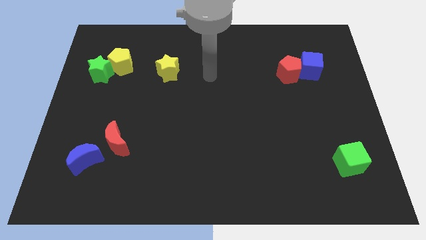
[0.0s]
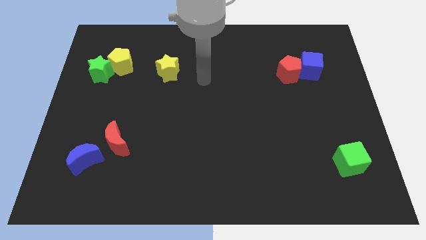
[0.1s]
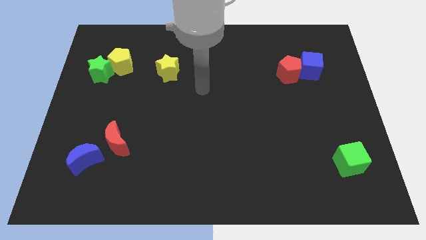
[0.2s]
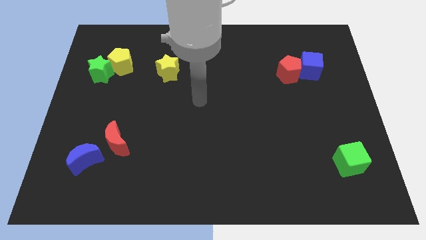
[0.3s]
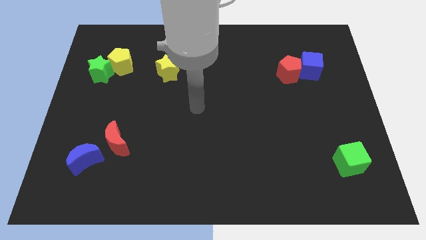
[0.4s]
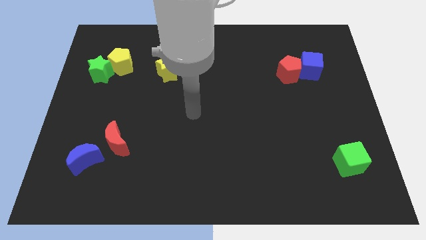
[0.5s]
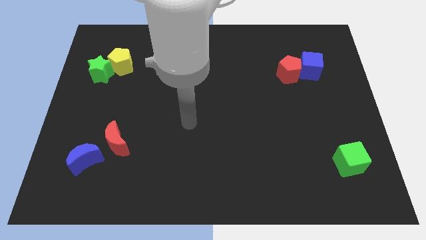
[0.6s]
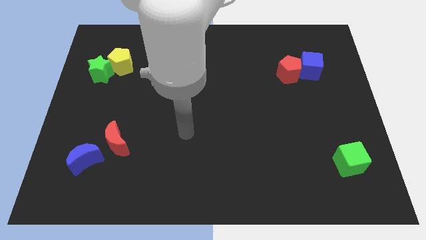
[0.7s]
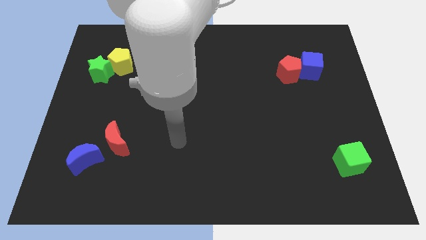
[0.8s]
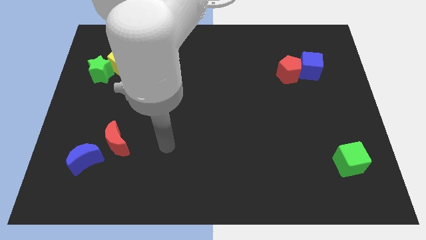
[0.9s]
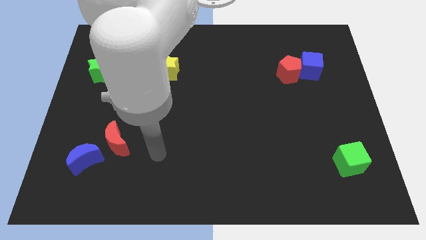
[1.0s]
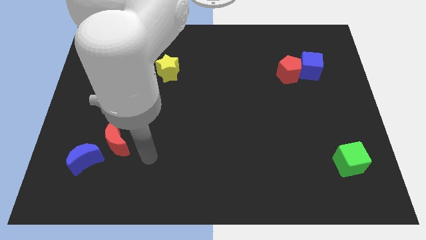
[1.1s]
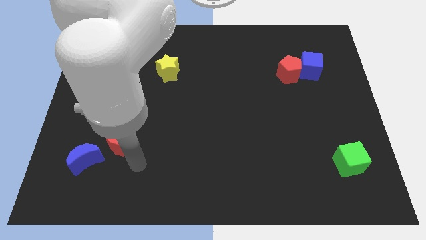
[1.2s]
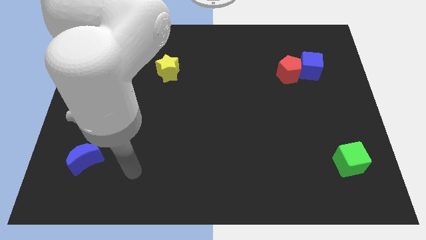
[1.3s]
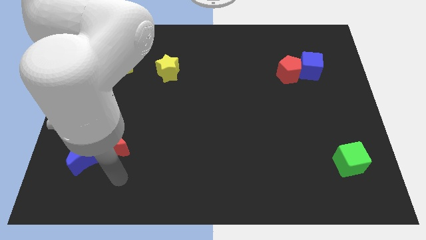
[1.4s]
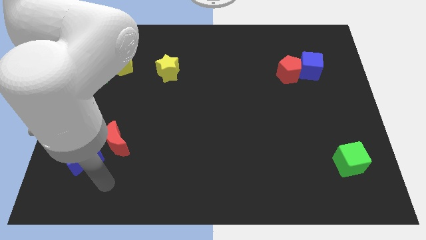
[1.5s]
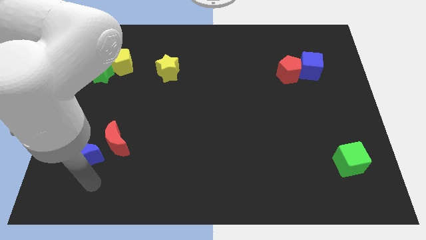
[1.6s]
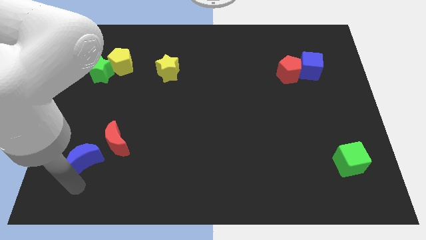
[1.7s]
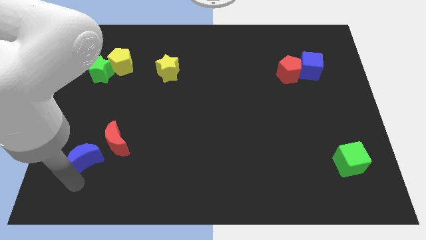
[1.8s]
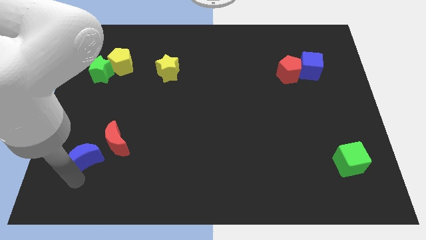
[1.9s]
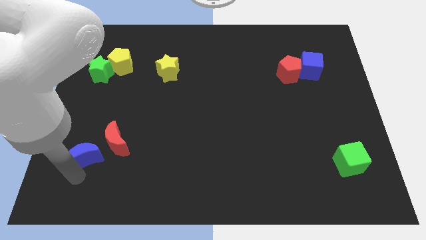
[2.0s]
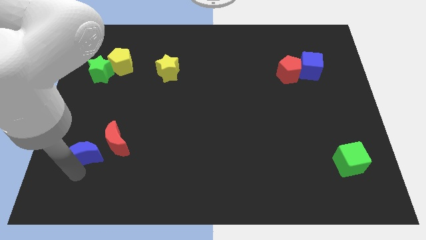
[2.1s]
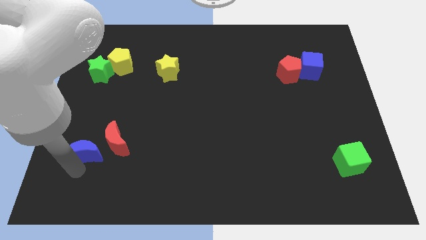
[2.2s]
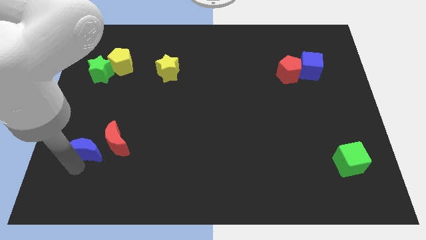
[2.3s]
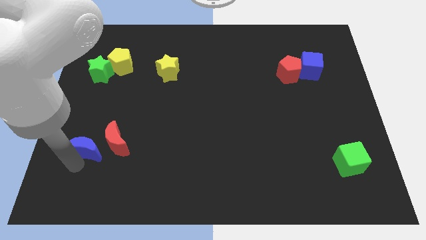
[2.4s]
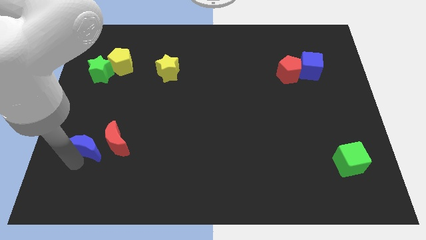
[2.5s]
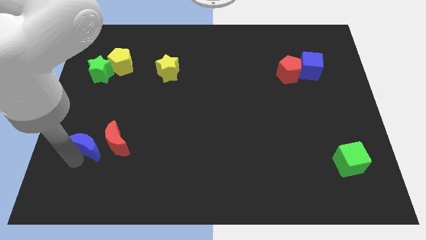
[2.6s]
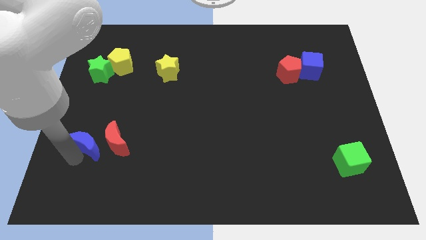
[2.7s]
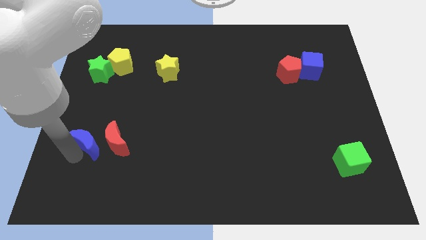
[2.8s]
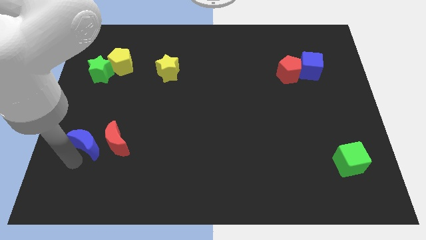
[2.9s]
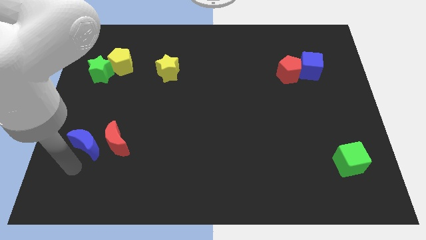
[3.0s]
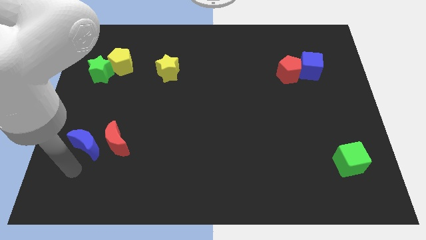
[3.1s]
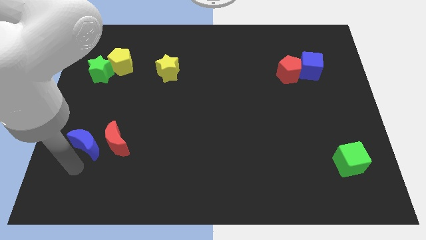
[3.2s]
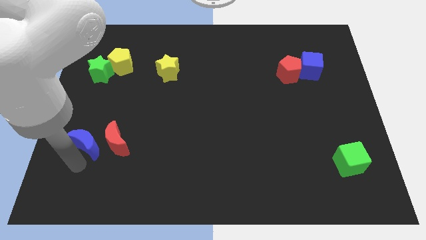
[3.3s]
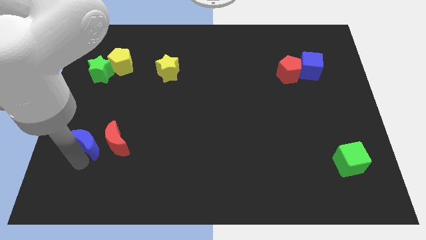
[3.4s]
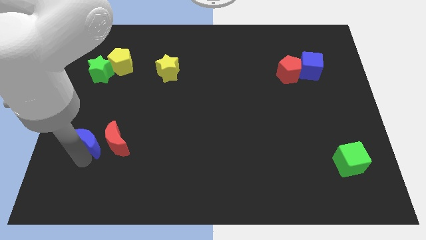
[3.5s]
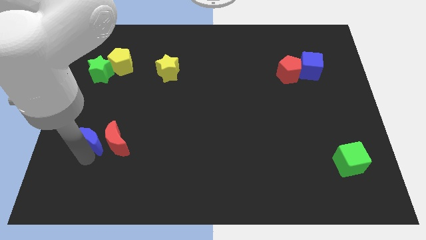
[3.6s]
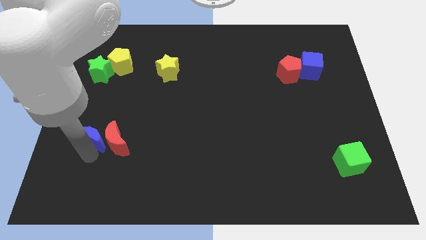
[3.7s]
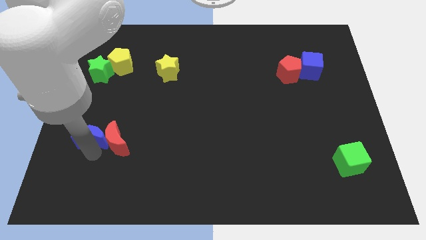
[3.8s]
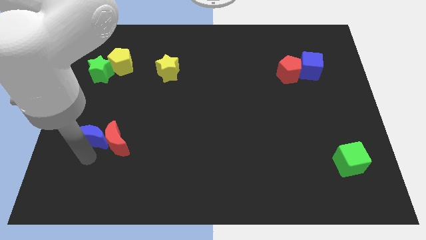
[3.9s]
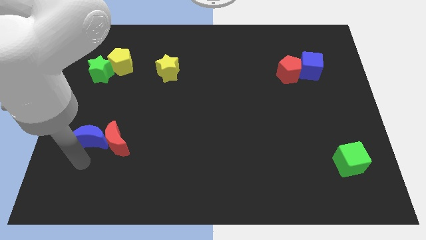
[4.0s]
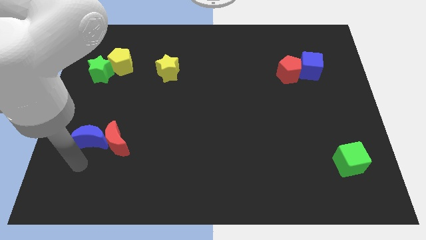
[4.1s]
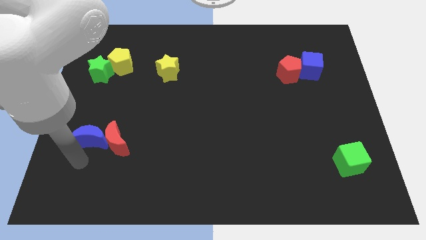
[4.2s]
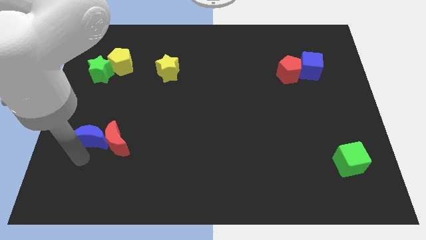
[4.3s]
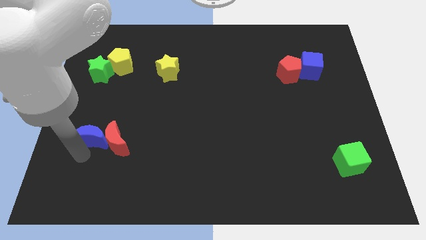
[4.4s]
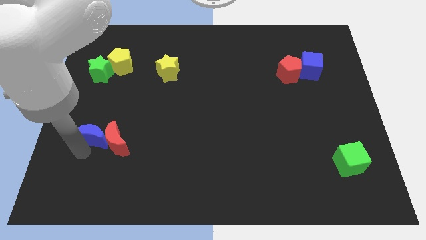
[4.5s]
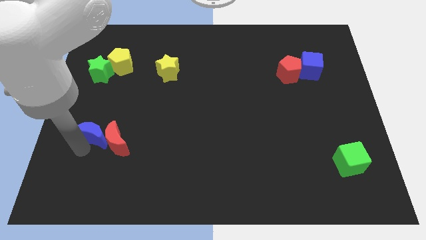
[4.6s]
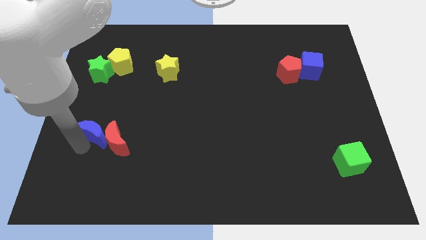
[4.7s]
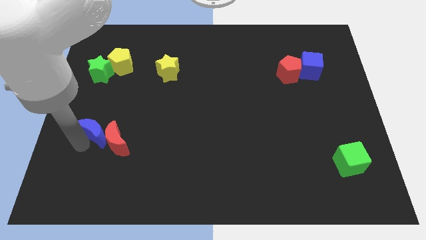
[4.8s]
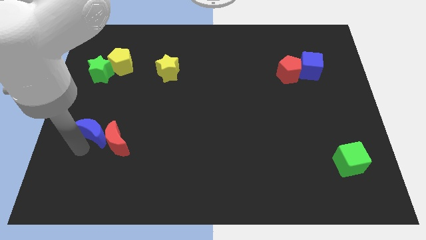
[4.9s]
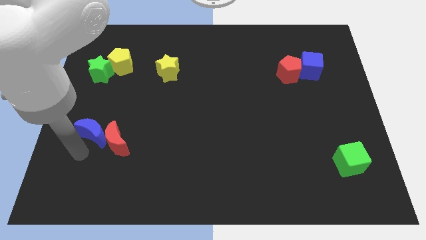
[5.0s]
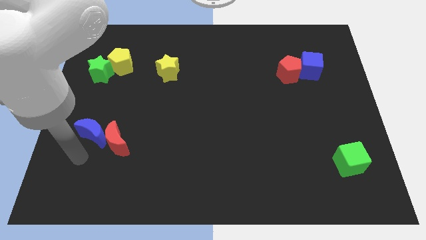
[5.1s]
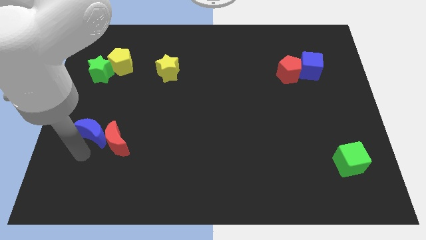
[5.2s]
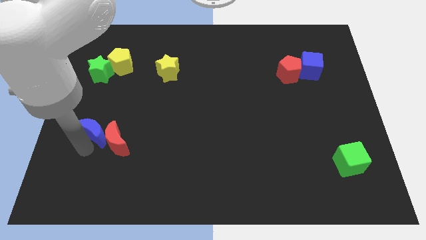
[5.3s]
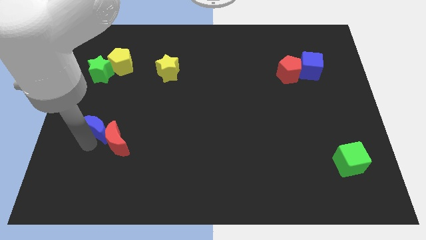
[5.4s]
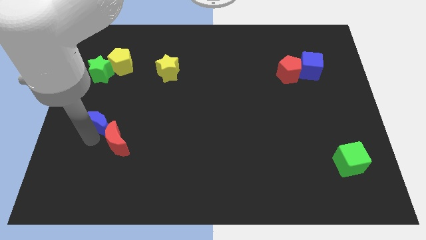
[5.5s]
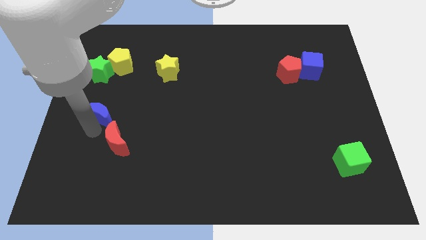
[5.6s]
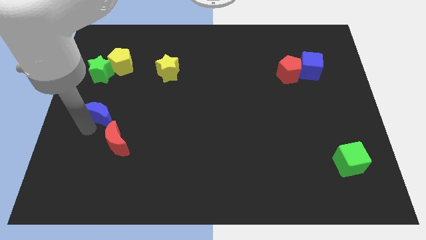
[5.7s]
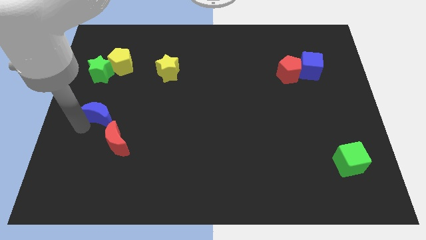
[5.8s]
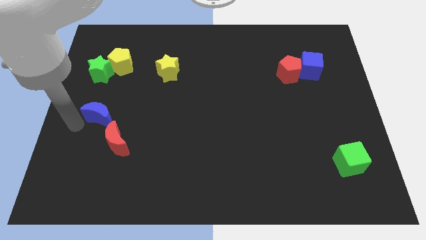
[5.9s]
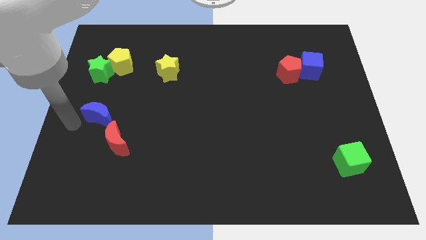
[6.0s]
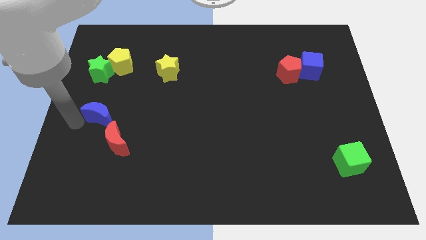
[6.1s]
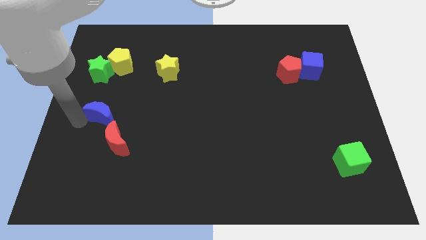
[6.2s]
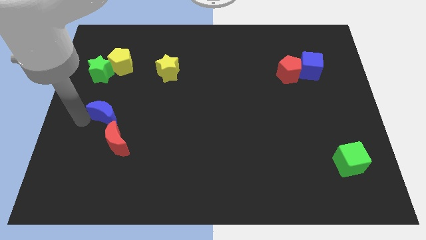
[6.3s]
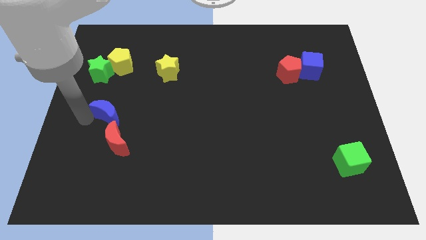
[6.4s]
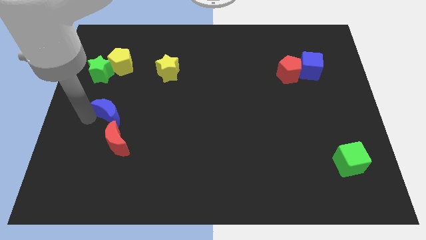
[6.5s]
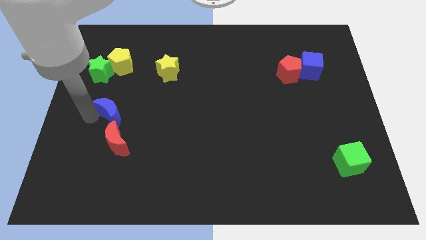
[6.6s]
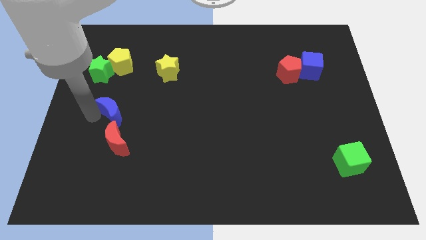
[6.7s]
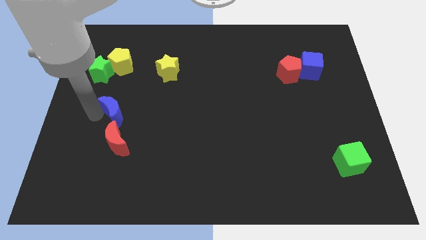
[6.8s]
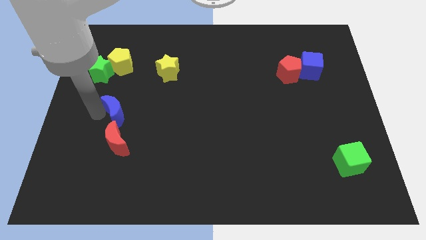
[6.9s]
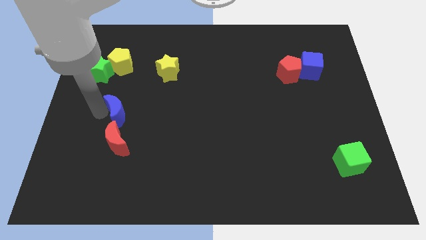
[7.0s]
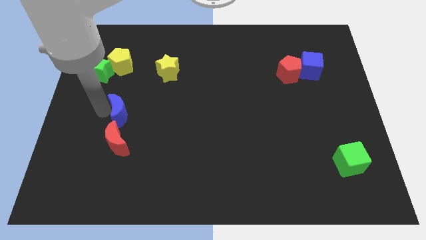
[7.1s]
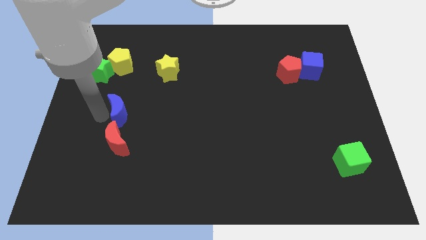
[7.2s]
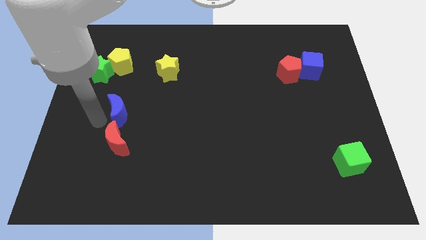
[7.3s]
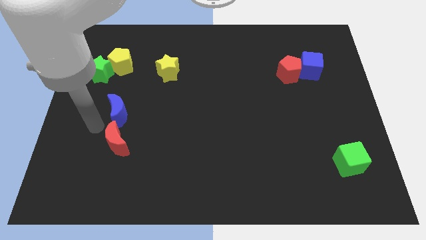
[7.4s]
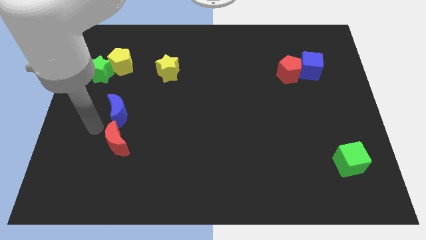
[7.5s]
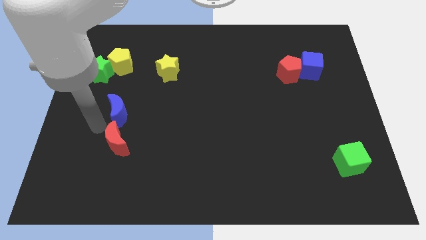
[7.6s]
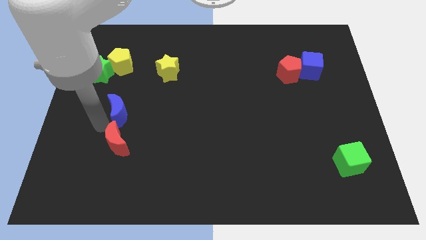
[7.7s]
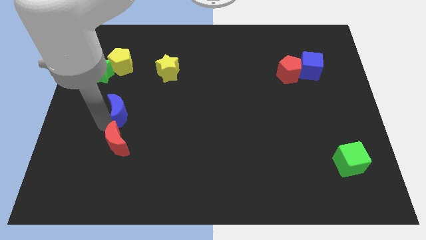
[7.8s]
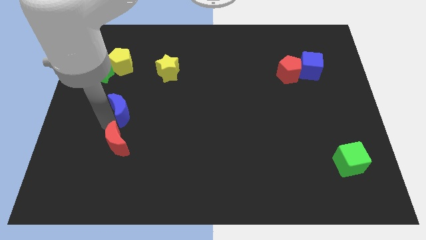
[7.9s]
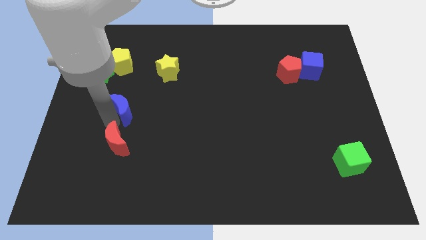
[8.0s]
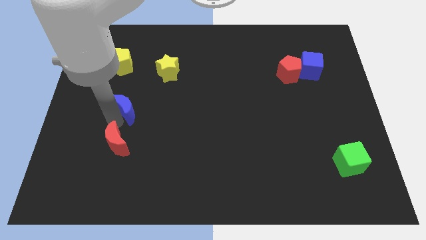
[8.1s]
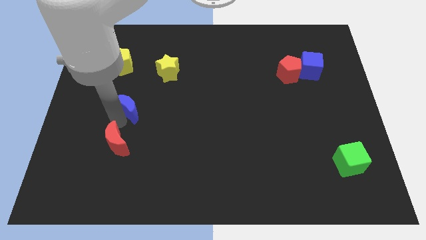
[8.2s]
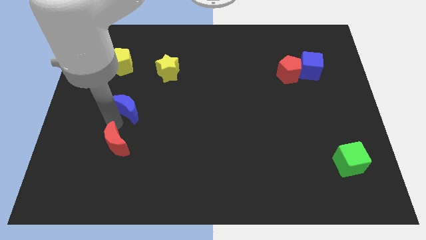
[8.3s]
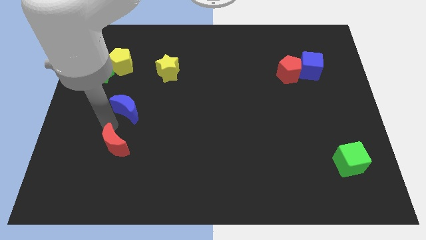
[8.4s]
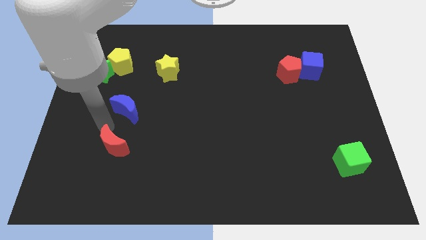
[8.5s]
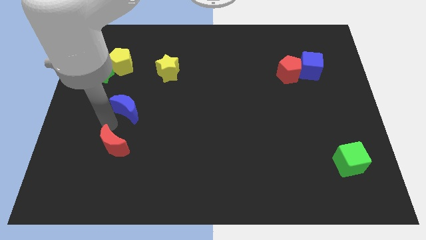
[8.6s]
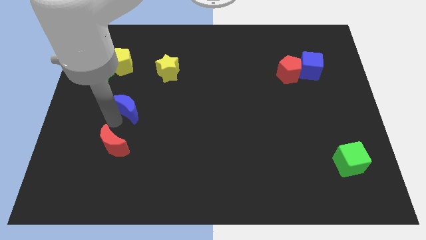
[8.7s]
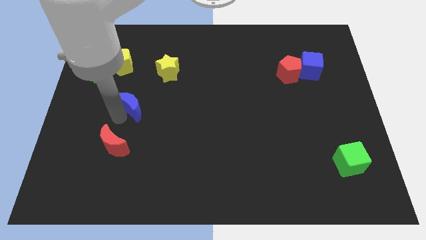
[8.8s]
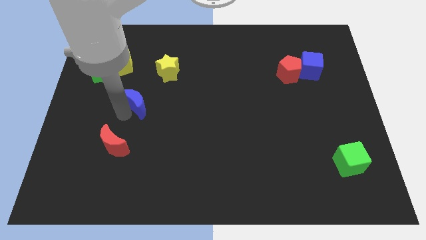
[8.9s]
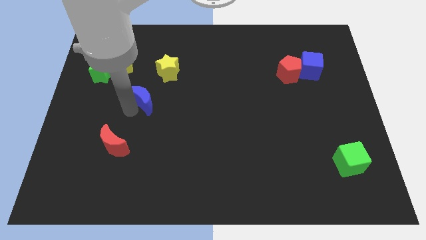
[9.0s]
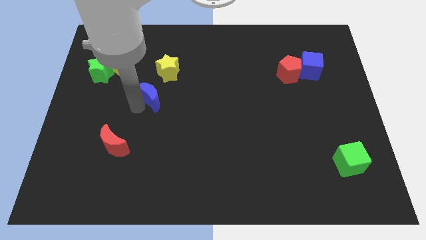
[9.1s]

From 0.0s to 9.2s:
push the blue moon diagonally up and right
